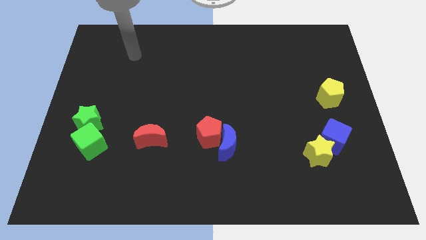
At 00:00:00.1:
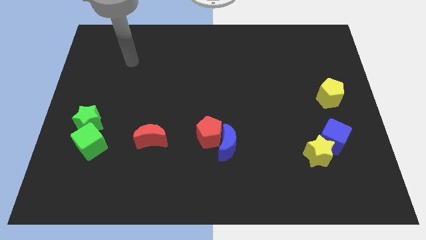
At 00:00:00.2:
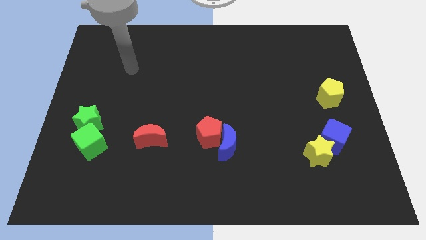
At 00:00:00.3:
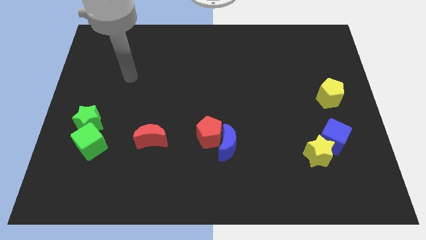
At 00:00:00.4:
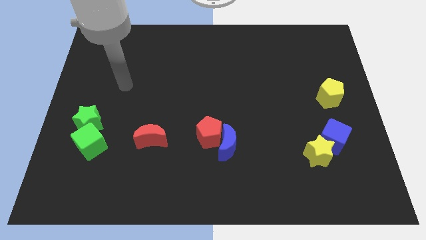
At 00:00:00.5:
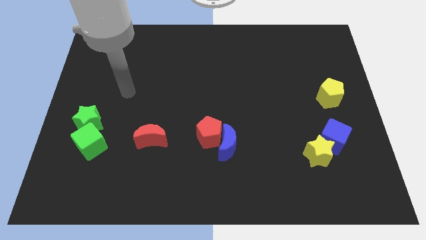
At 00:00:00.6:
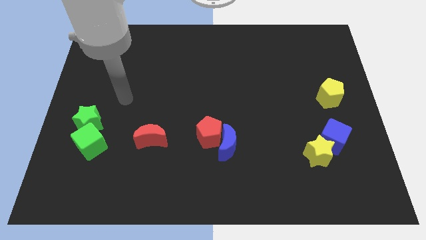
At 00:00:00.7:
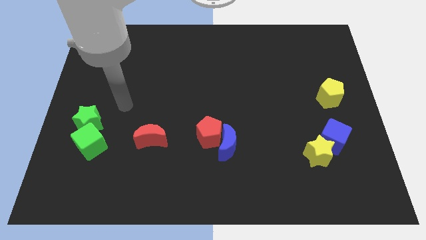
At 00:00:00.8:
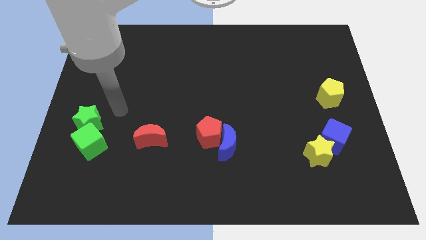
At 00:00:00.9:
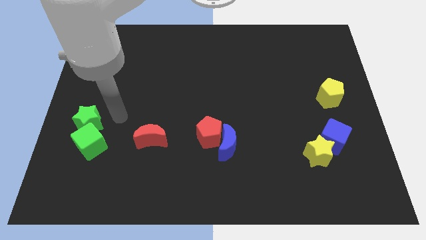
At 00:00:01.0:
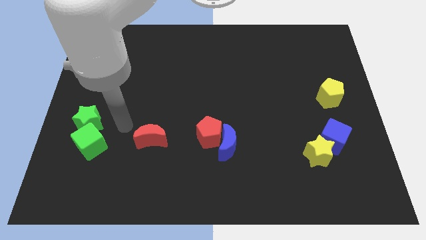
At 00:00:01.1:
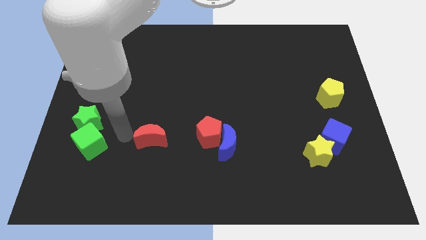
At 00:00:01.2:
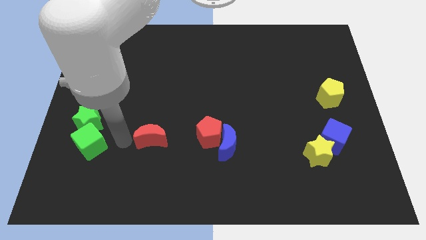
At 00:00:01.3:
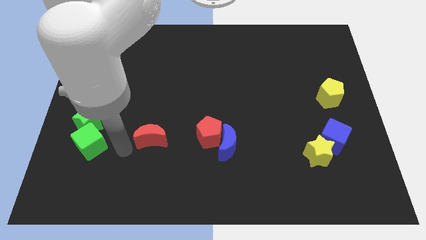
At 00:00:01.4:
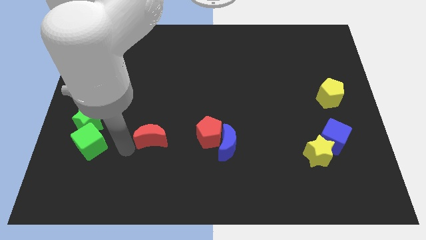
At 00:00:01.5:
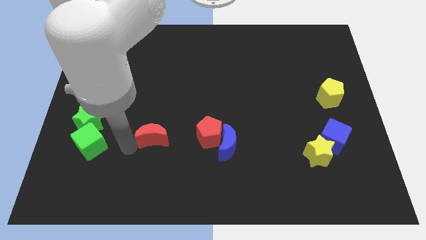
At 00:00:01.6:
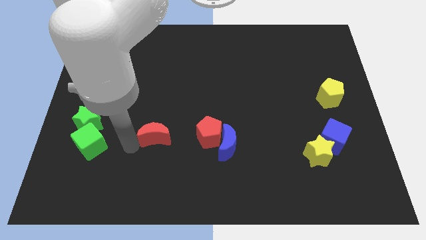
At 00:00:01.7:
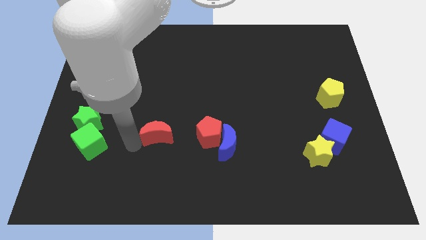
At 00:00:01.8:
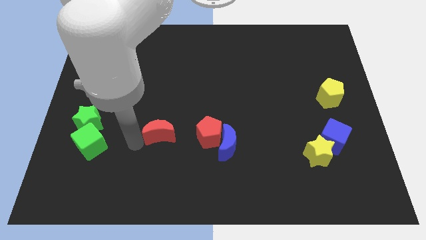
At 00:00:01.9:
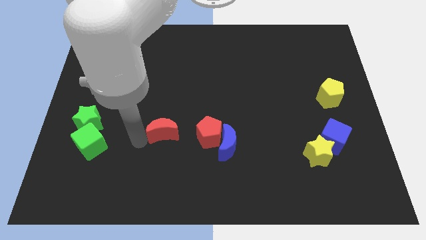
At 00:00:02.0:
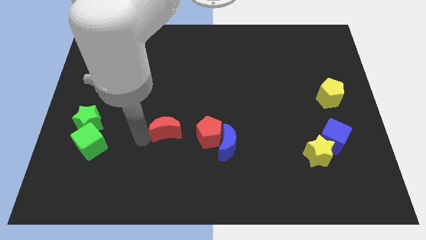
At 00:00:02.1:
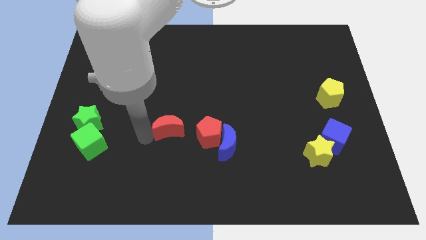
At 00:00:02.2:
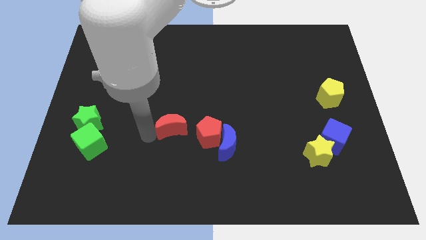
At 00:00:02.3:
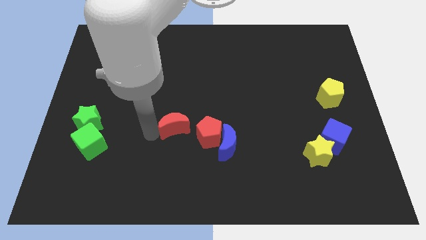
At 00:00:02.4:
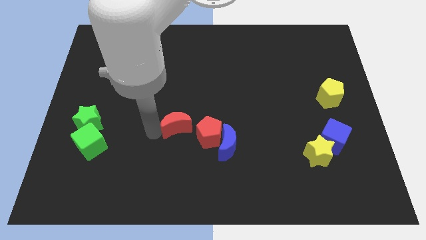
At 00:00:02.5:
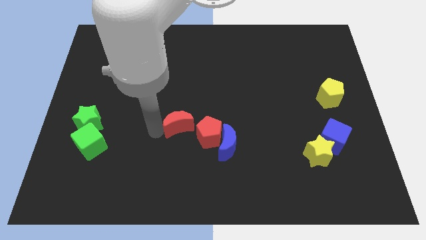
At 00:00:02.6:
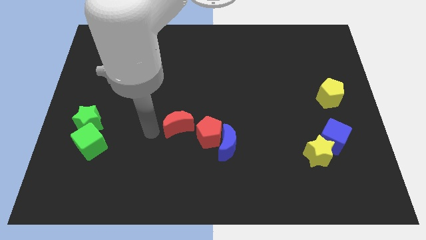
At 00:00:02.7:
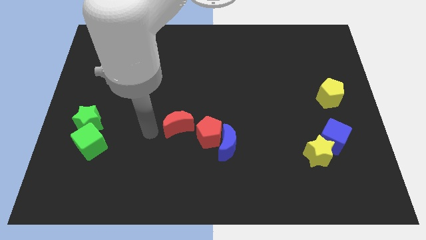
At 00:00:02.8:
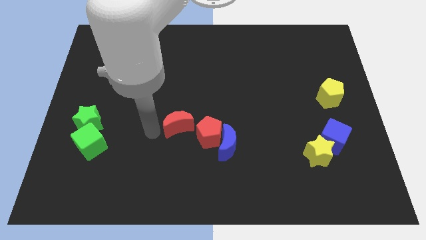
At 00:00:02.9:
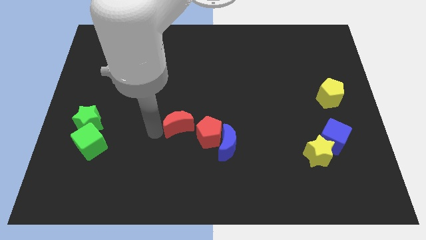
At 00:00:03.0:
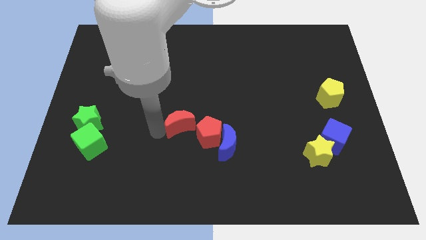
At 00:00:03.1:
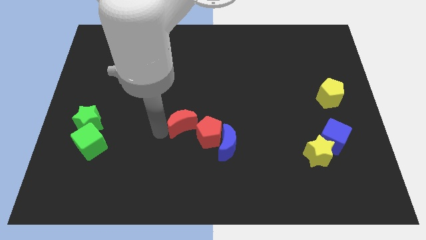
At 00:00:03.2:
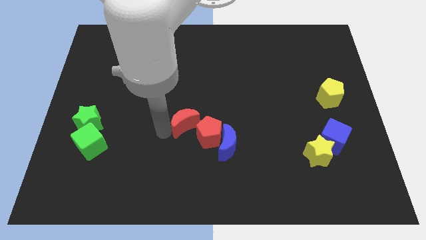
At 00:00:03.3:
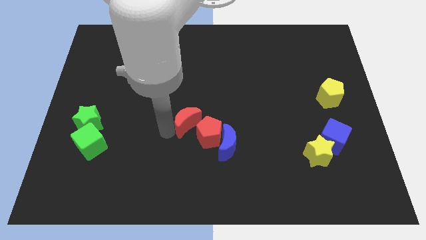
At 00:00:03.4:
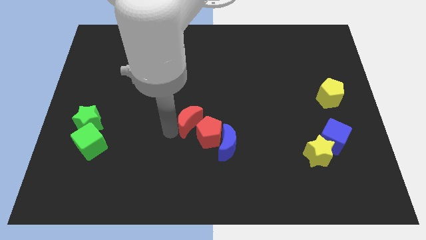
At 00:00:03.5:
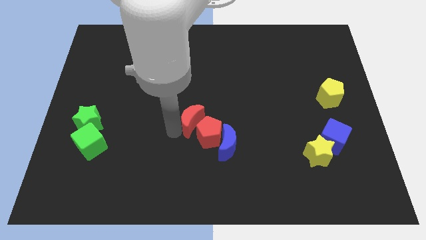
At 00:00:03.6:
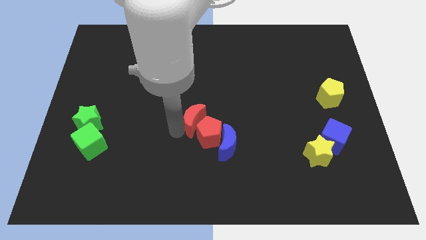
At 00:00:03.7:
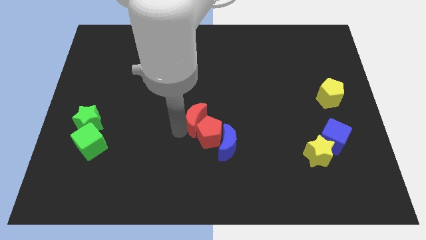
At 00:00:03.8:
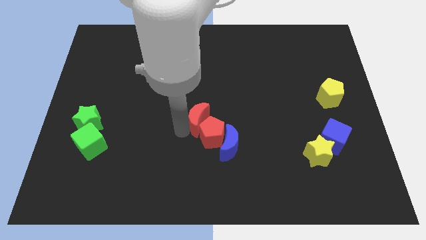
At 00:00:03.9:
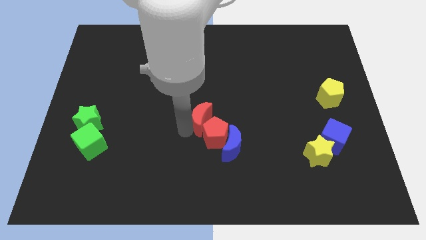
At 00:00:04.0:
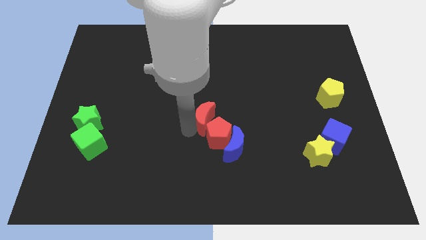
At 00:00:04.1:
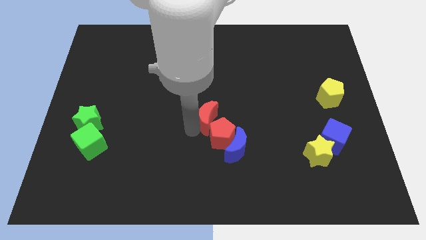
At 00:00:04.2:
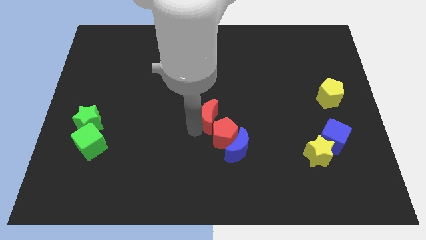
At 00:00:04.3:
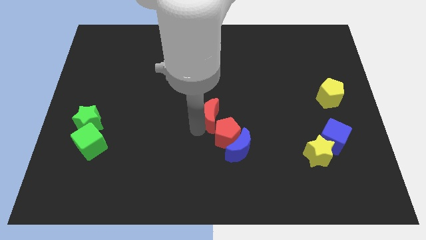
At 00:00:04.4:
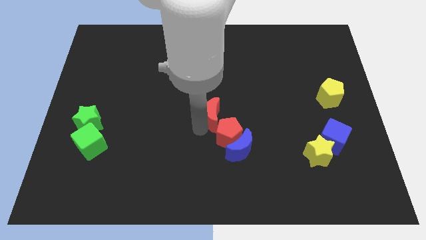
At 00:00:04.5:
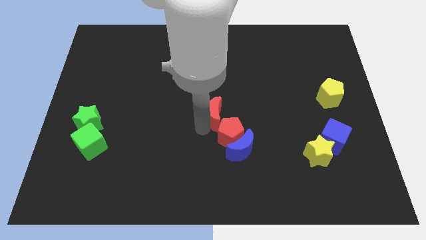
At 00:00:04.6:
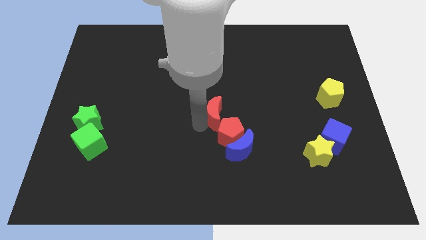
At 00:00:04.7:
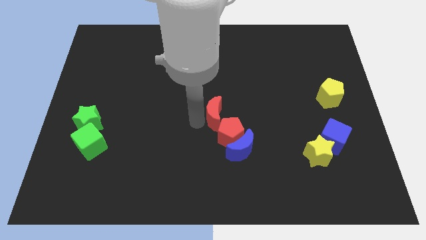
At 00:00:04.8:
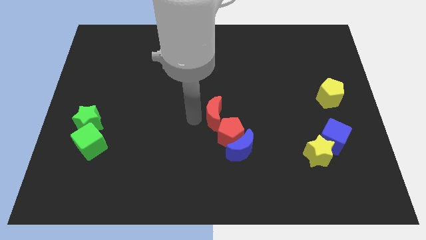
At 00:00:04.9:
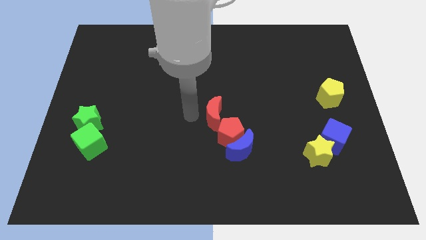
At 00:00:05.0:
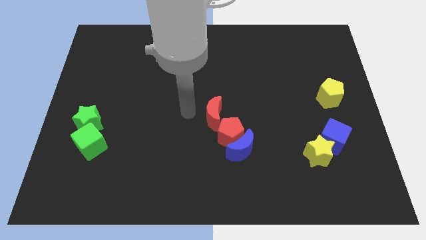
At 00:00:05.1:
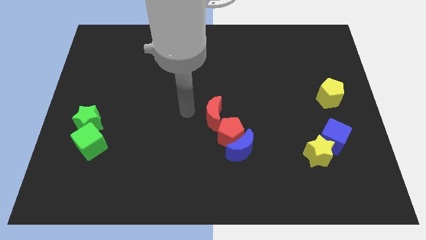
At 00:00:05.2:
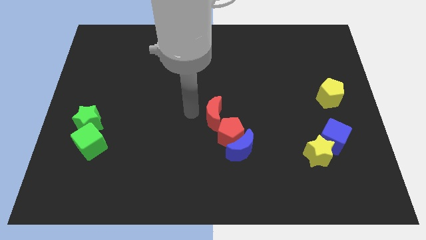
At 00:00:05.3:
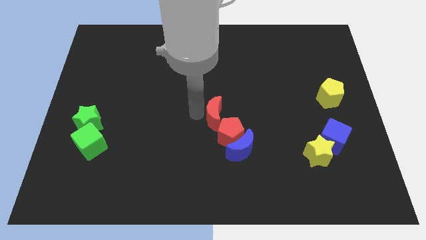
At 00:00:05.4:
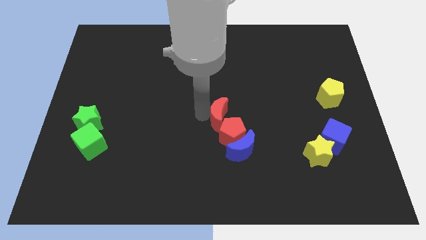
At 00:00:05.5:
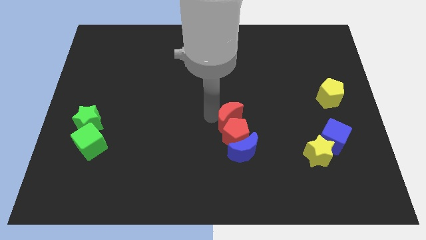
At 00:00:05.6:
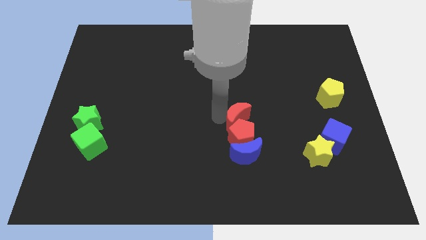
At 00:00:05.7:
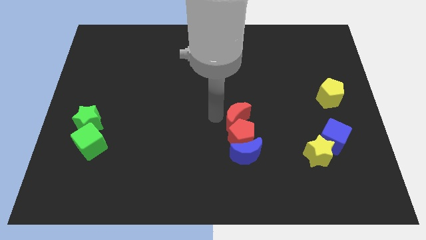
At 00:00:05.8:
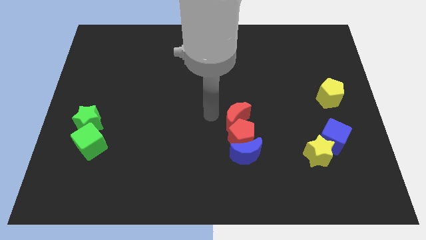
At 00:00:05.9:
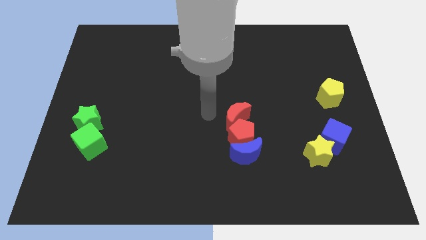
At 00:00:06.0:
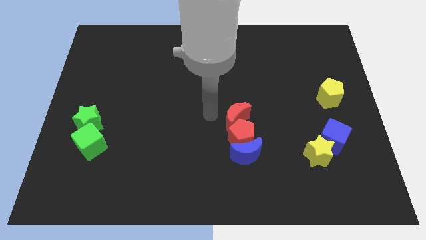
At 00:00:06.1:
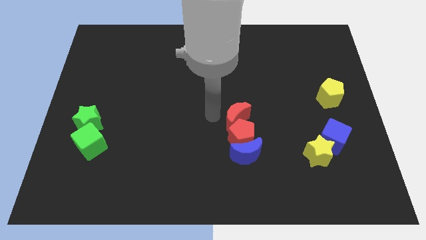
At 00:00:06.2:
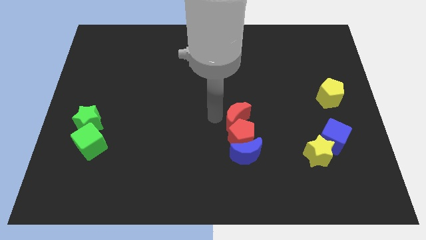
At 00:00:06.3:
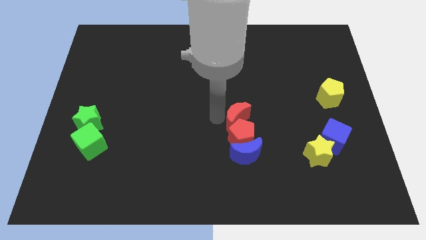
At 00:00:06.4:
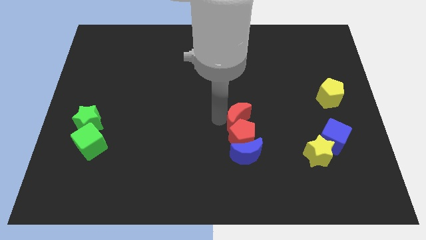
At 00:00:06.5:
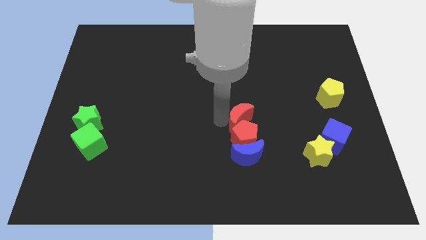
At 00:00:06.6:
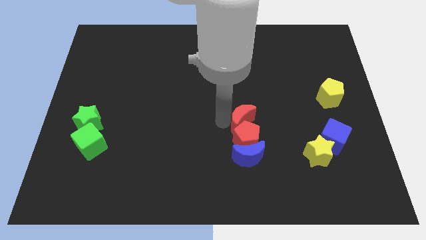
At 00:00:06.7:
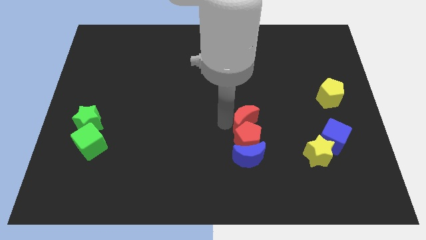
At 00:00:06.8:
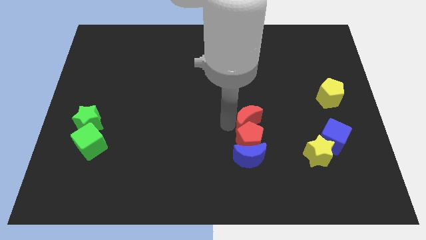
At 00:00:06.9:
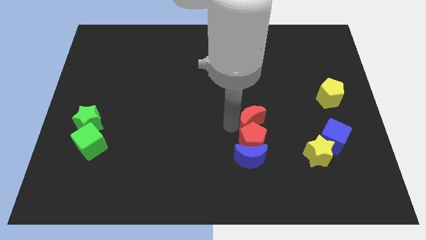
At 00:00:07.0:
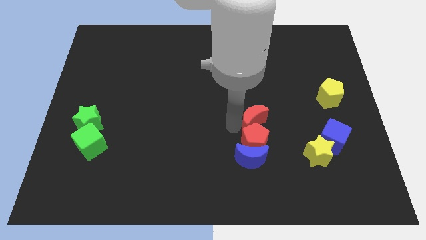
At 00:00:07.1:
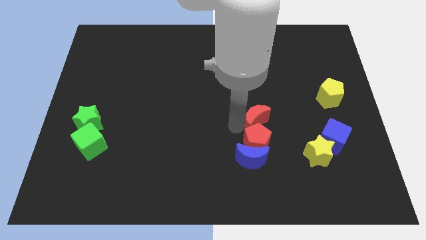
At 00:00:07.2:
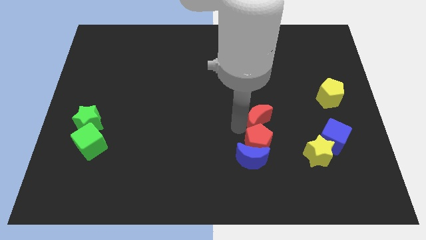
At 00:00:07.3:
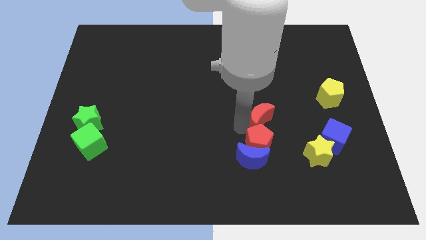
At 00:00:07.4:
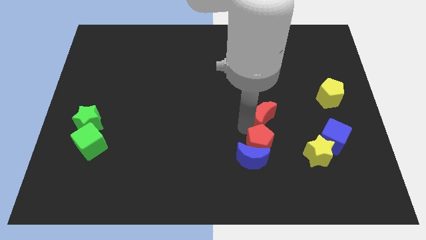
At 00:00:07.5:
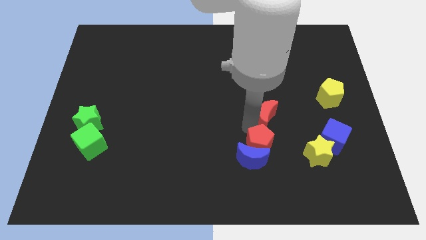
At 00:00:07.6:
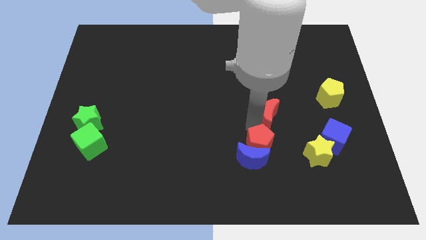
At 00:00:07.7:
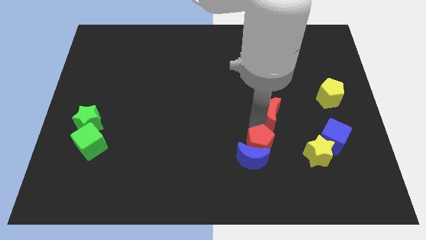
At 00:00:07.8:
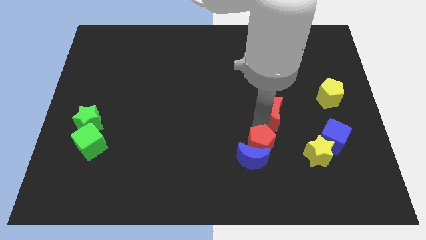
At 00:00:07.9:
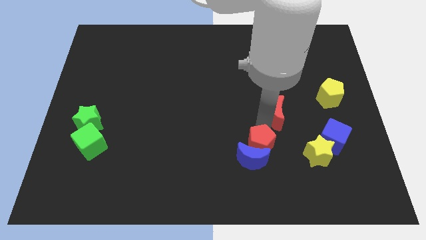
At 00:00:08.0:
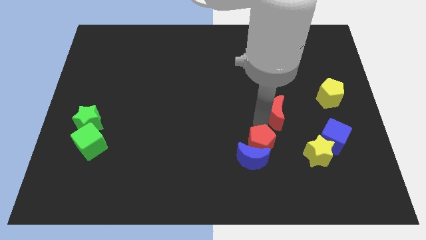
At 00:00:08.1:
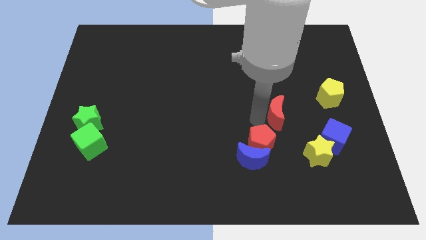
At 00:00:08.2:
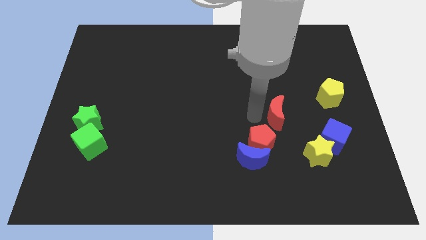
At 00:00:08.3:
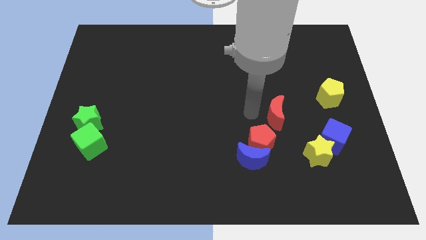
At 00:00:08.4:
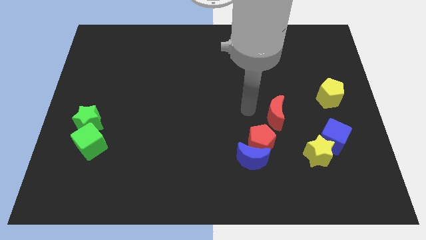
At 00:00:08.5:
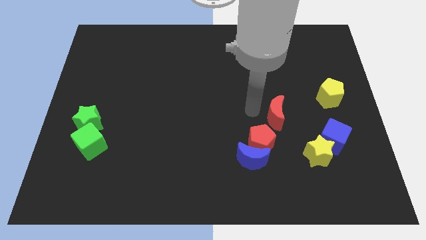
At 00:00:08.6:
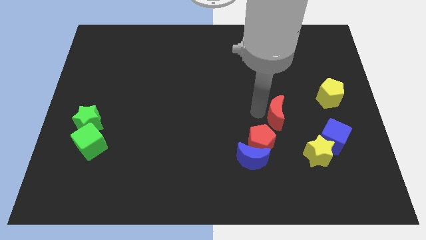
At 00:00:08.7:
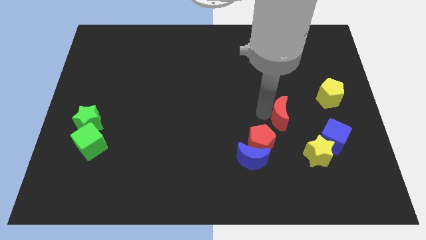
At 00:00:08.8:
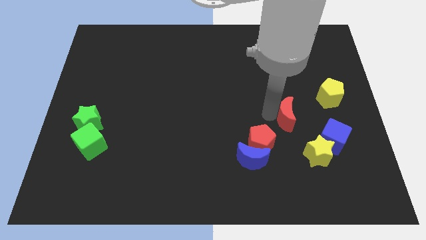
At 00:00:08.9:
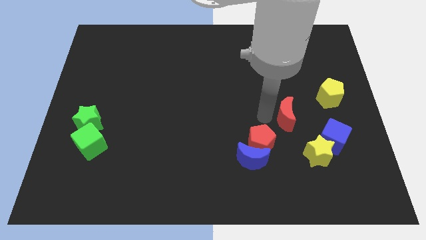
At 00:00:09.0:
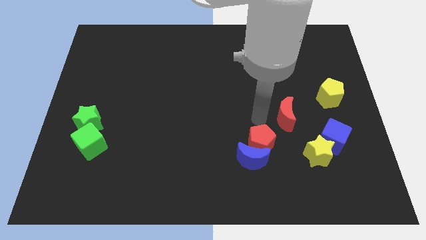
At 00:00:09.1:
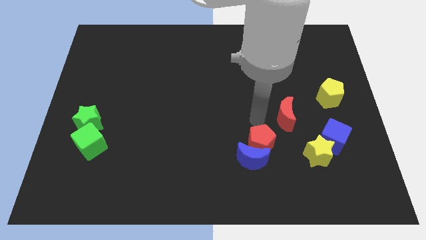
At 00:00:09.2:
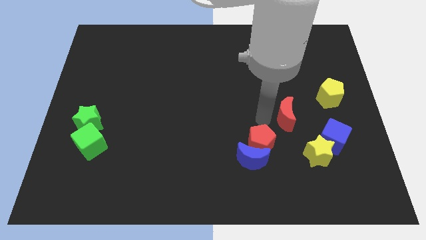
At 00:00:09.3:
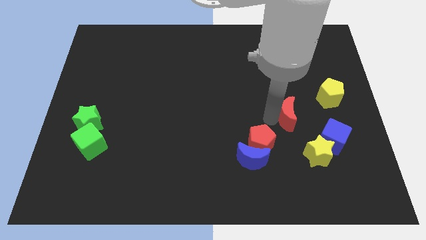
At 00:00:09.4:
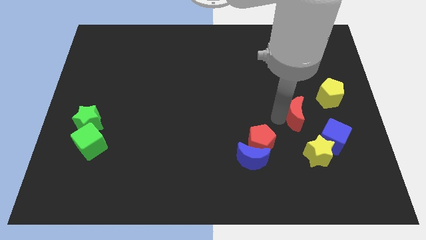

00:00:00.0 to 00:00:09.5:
move the red moon to the top of the yellow star
